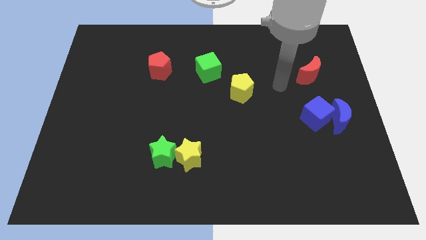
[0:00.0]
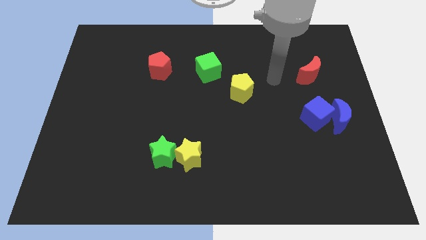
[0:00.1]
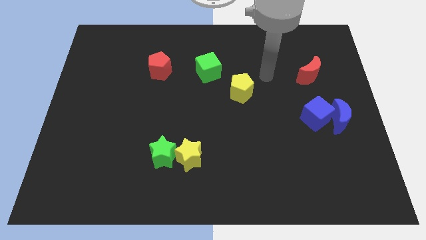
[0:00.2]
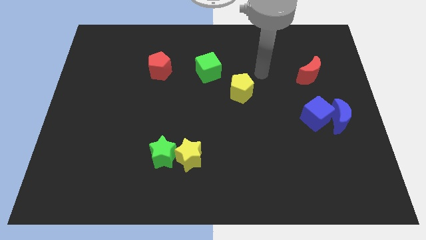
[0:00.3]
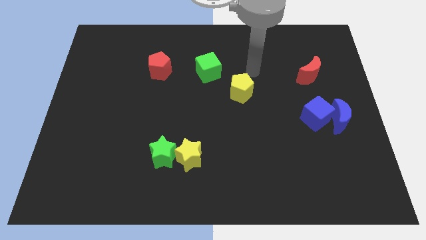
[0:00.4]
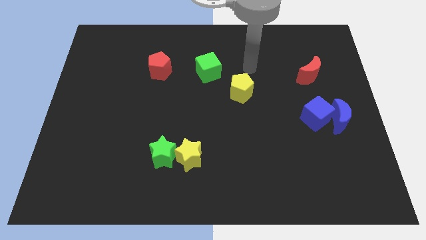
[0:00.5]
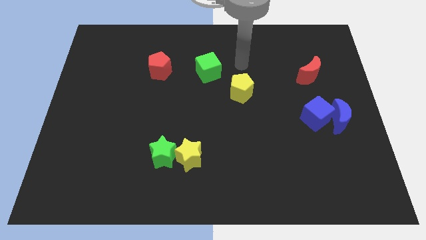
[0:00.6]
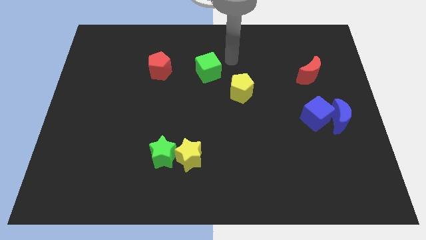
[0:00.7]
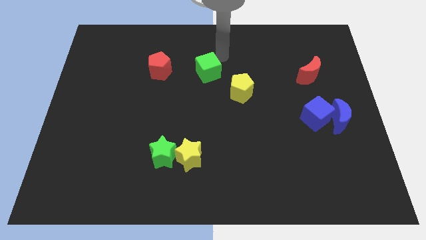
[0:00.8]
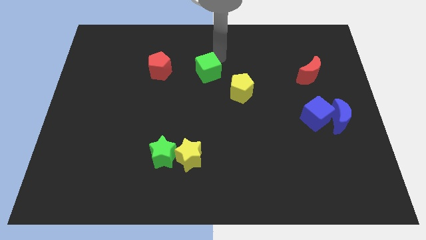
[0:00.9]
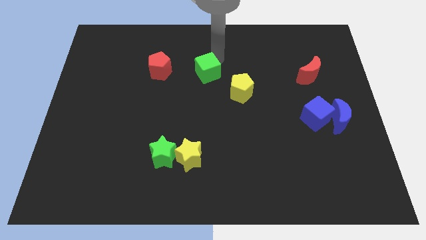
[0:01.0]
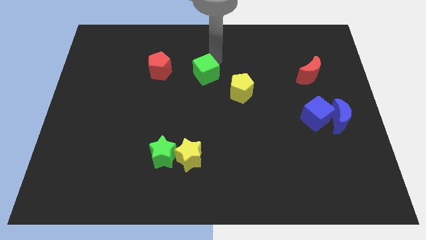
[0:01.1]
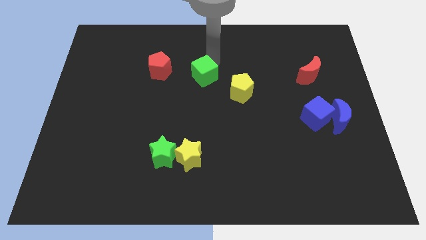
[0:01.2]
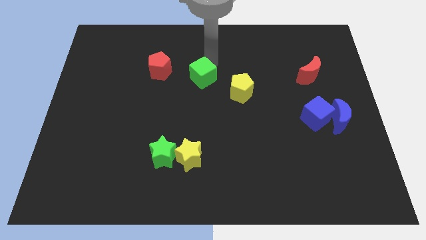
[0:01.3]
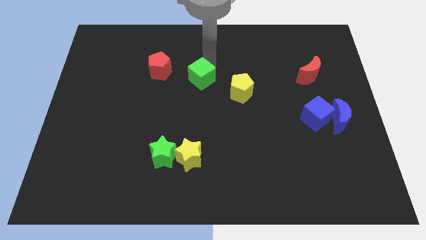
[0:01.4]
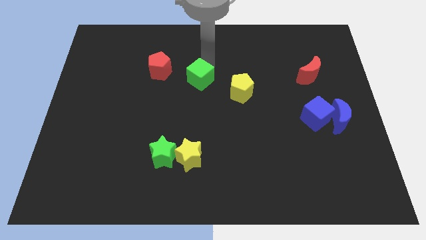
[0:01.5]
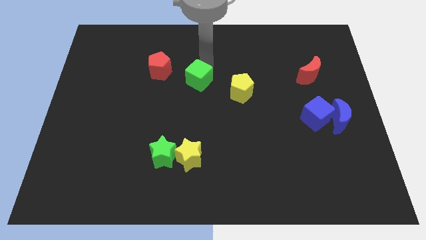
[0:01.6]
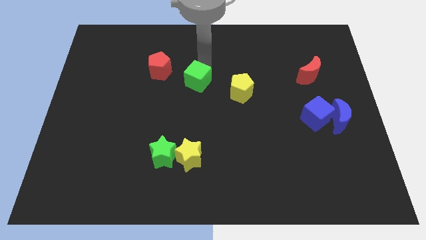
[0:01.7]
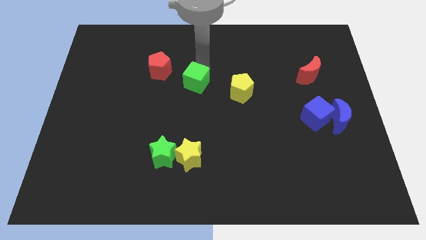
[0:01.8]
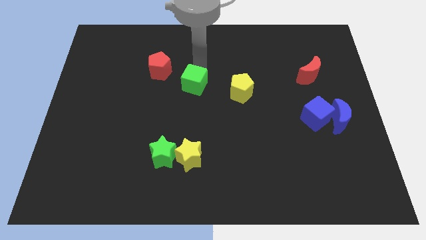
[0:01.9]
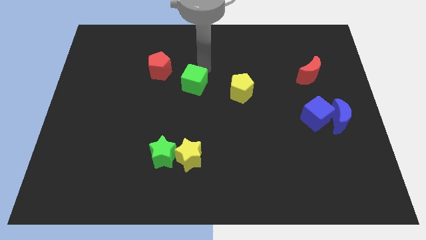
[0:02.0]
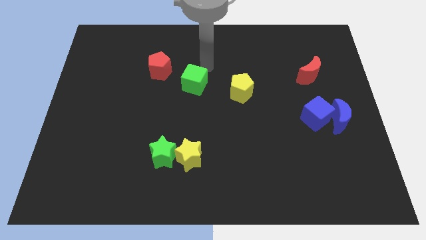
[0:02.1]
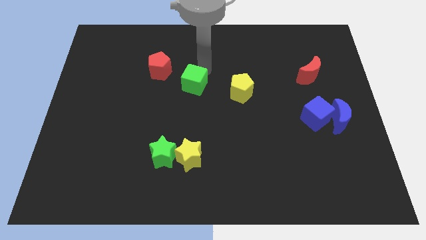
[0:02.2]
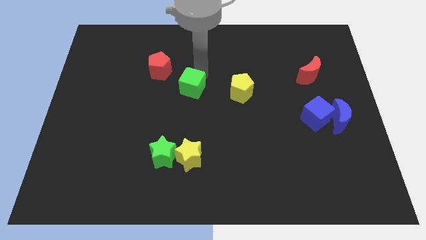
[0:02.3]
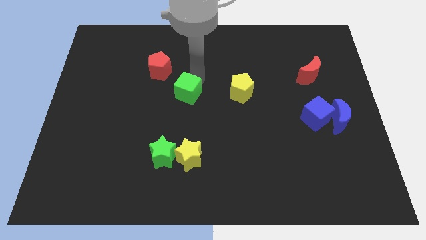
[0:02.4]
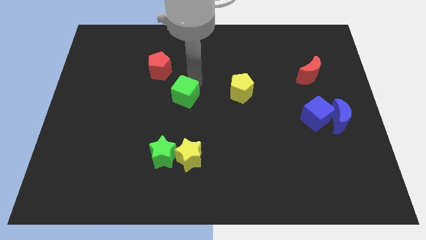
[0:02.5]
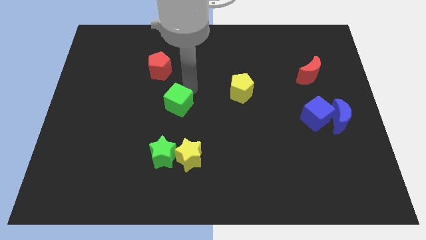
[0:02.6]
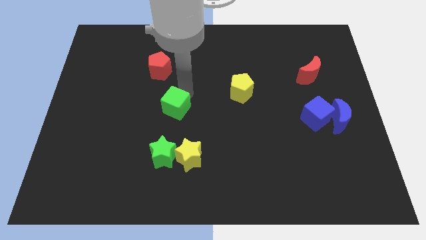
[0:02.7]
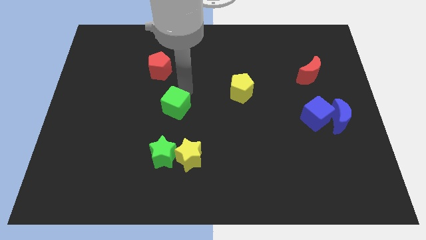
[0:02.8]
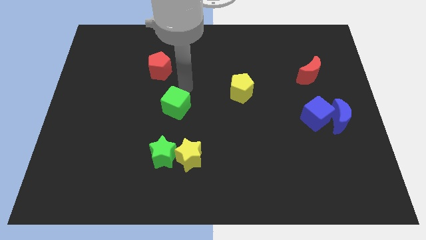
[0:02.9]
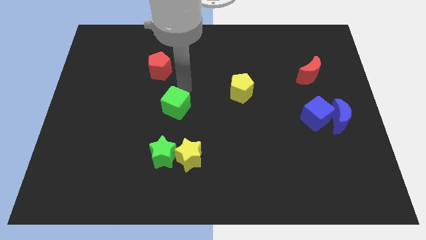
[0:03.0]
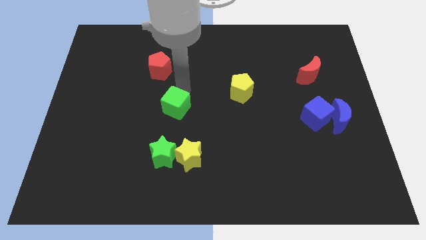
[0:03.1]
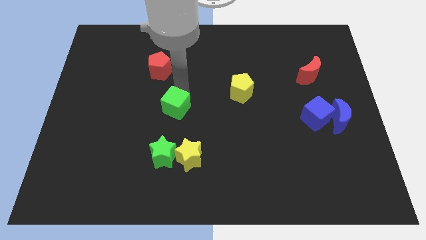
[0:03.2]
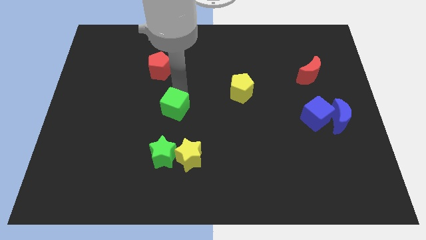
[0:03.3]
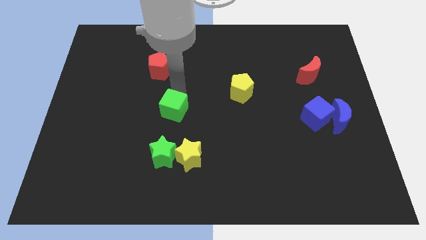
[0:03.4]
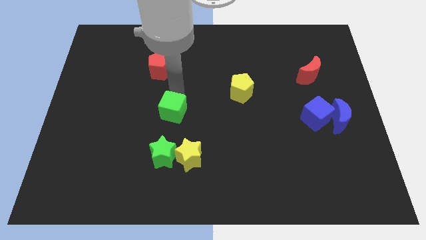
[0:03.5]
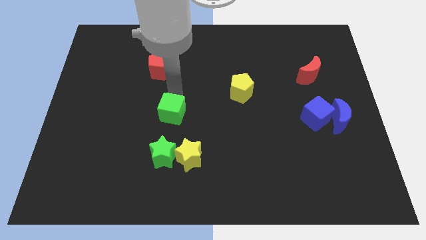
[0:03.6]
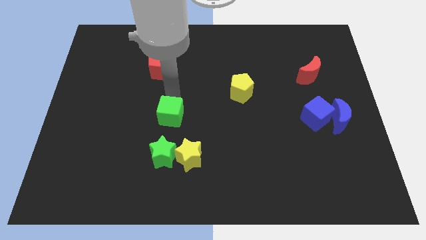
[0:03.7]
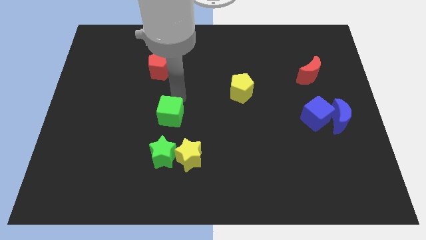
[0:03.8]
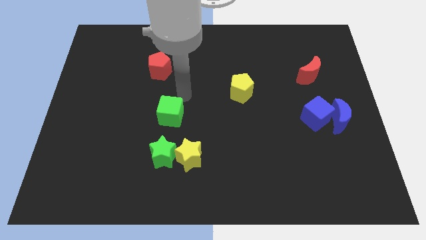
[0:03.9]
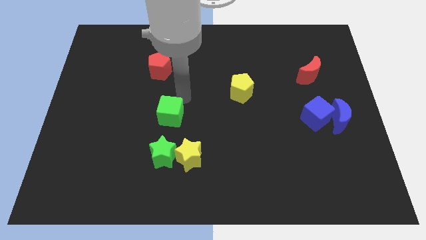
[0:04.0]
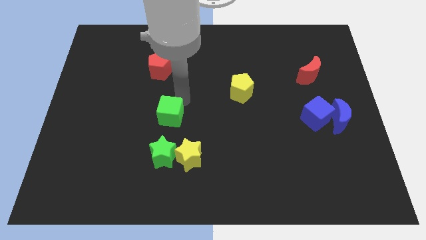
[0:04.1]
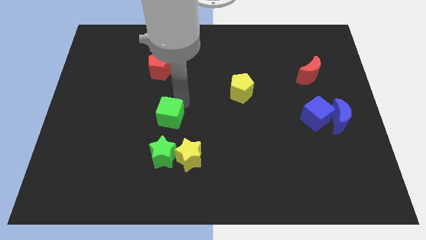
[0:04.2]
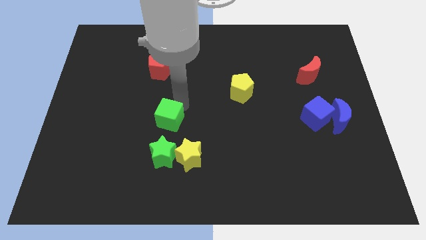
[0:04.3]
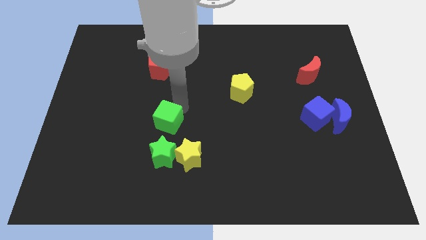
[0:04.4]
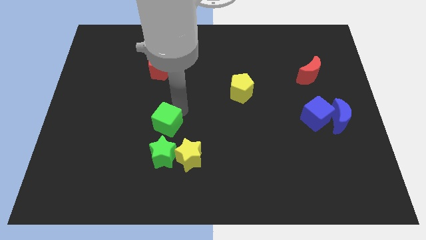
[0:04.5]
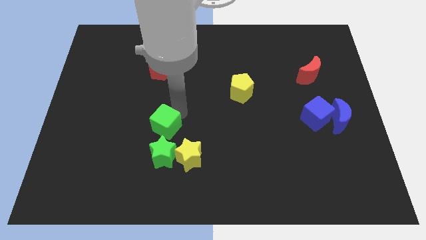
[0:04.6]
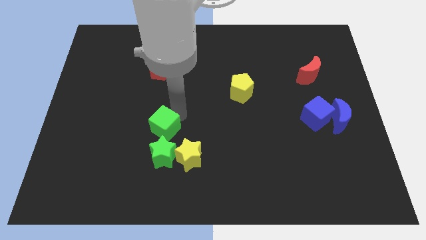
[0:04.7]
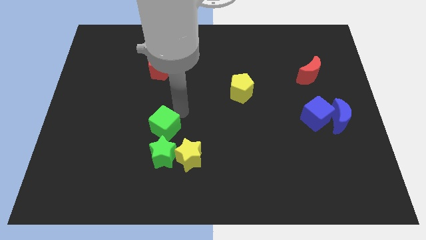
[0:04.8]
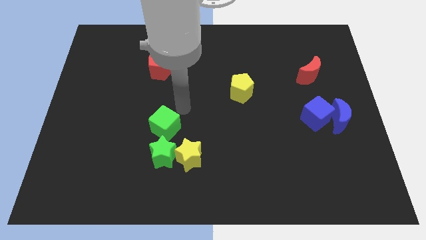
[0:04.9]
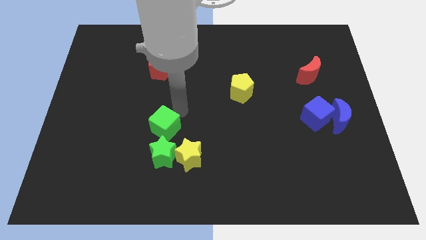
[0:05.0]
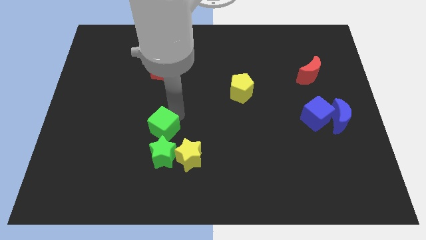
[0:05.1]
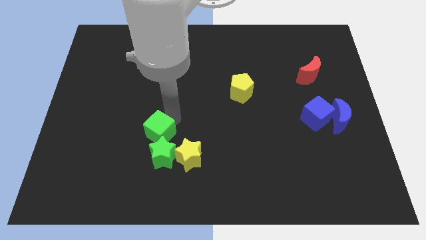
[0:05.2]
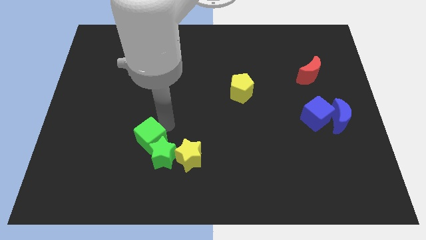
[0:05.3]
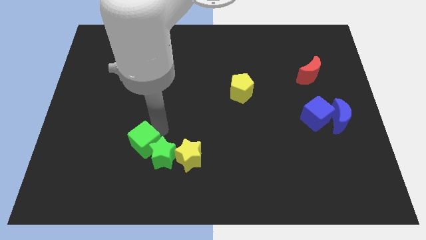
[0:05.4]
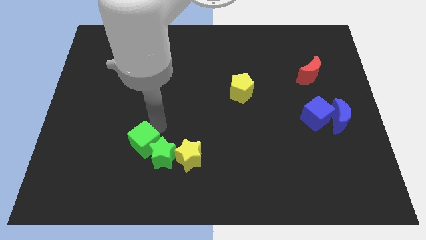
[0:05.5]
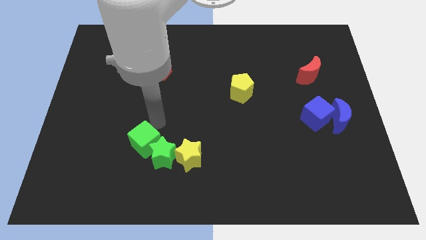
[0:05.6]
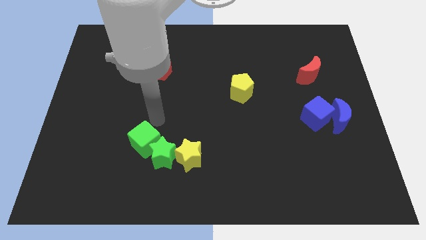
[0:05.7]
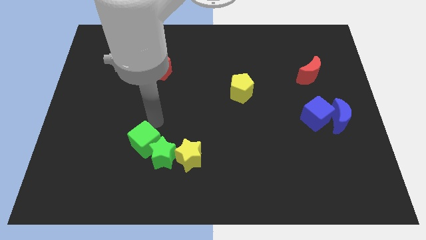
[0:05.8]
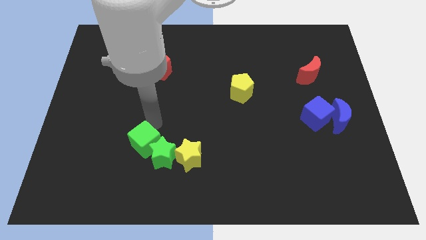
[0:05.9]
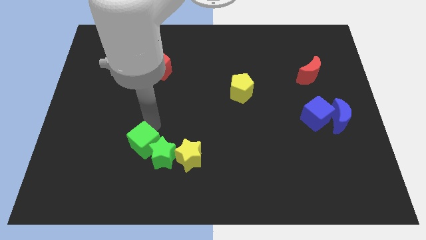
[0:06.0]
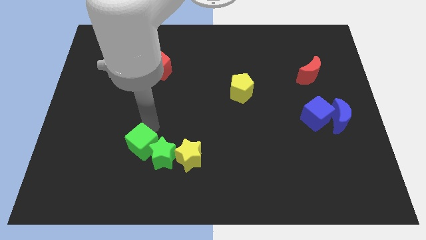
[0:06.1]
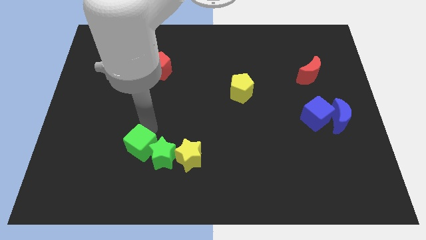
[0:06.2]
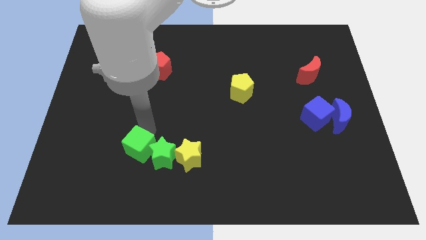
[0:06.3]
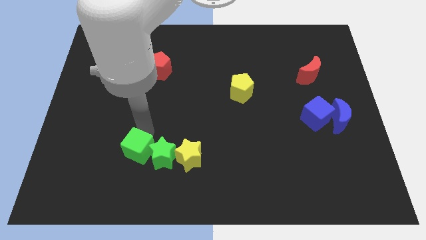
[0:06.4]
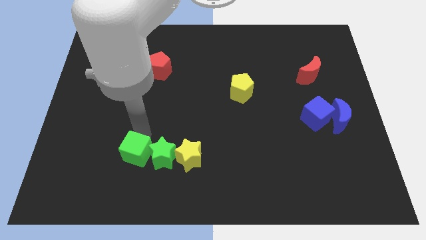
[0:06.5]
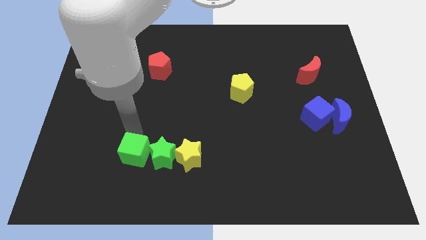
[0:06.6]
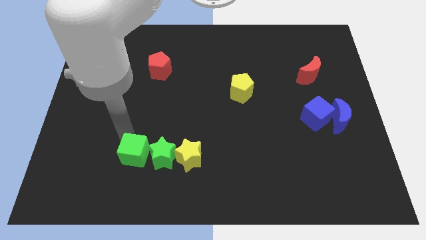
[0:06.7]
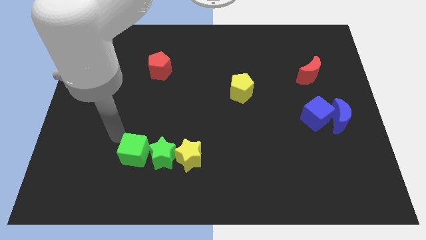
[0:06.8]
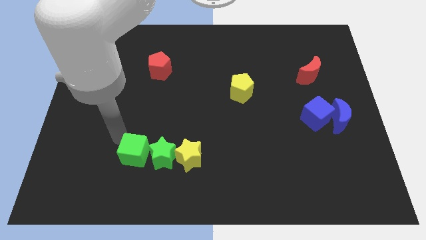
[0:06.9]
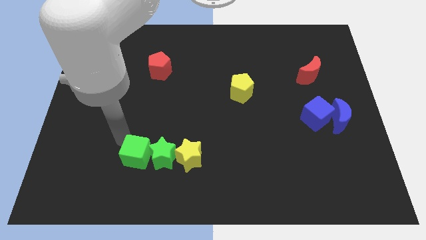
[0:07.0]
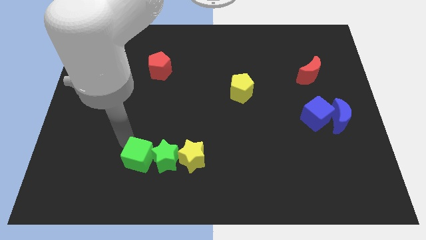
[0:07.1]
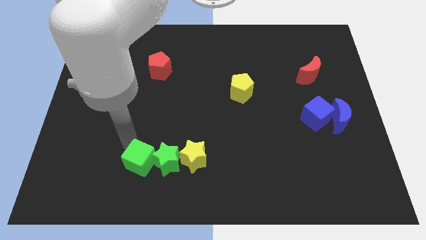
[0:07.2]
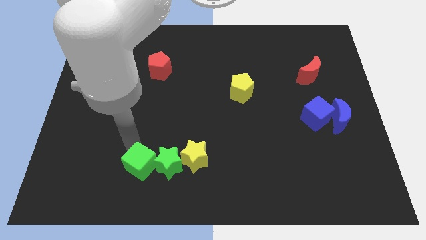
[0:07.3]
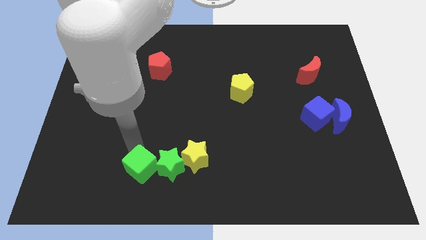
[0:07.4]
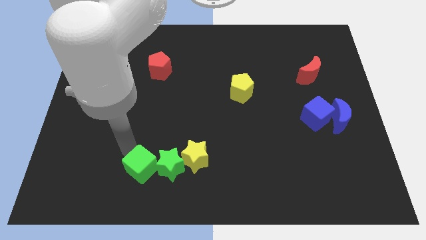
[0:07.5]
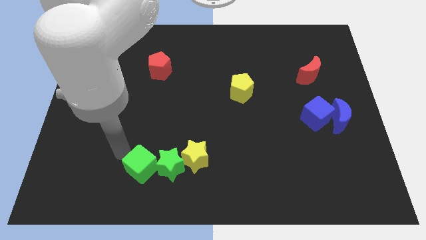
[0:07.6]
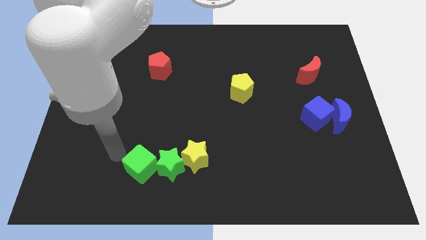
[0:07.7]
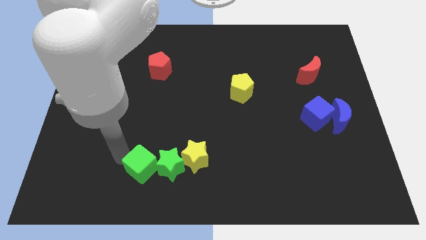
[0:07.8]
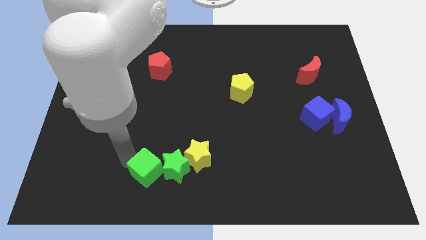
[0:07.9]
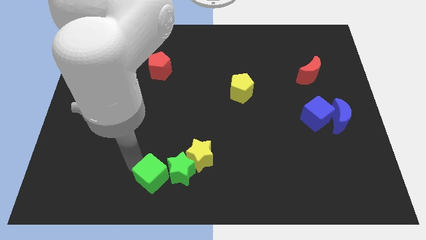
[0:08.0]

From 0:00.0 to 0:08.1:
put the green cube diagonally down and to the left of the yellow star
